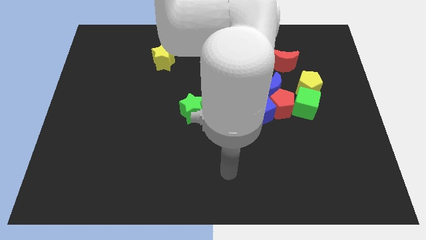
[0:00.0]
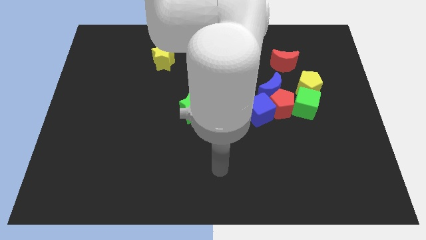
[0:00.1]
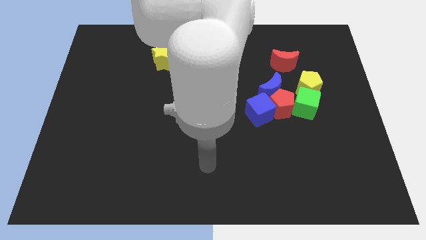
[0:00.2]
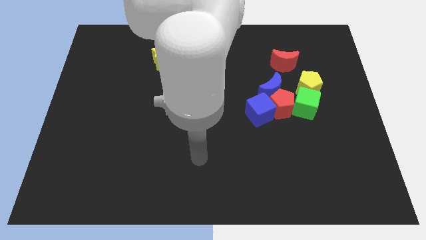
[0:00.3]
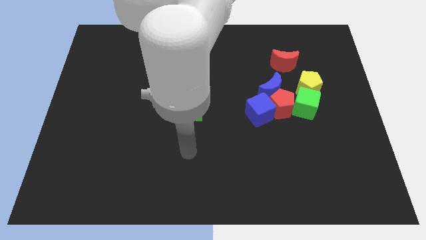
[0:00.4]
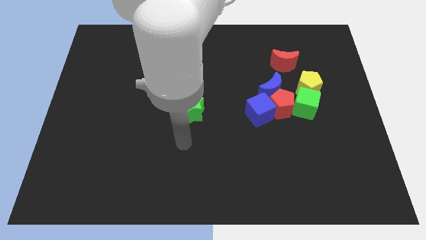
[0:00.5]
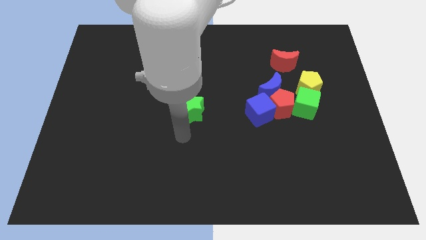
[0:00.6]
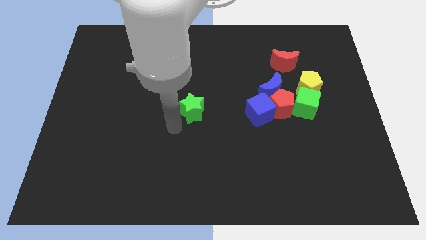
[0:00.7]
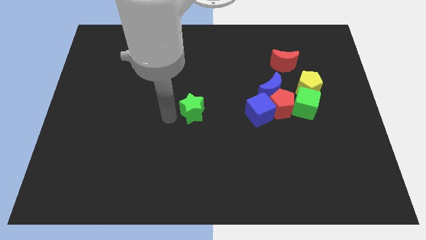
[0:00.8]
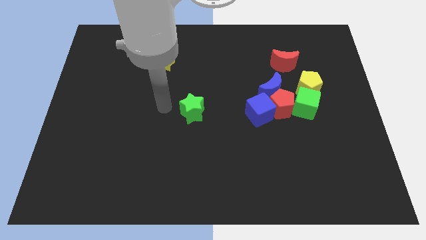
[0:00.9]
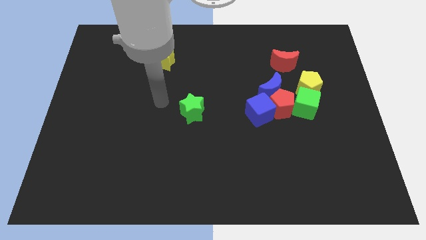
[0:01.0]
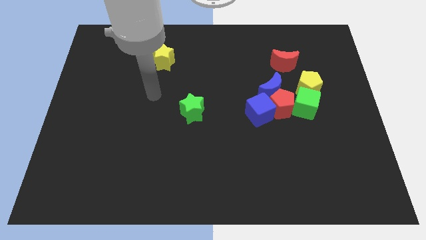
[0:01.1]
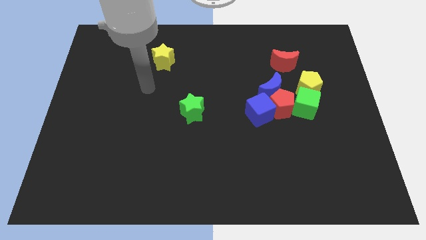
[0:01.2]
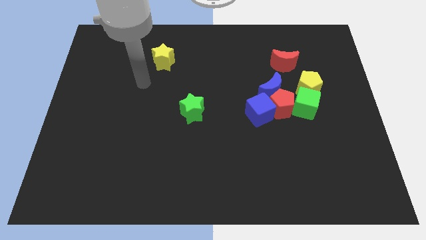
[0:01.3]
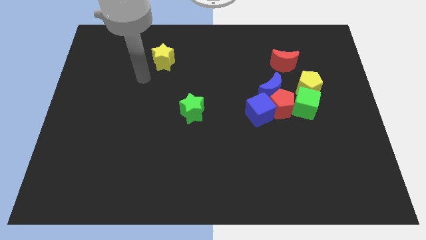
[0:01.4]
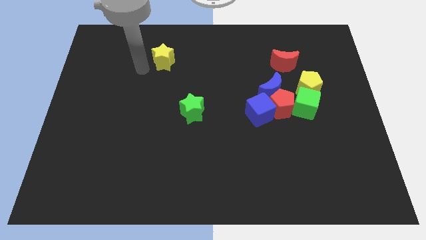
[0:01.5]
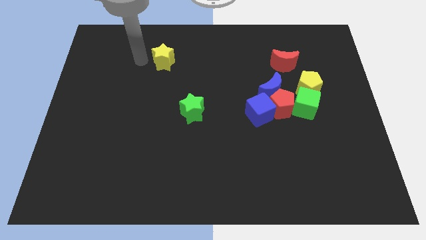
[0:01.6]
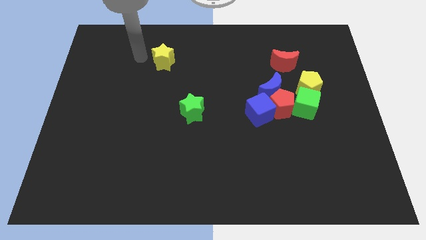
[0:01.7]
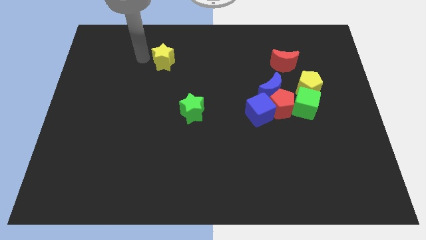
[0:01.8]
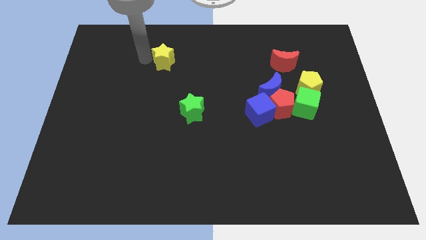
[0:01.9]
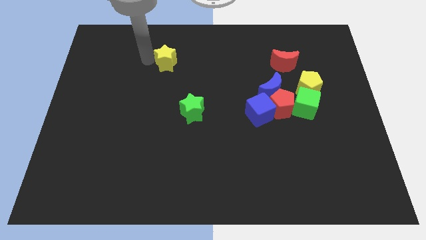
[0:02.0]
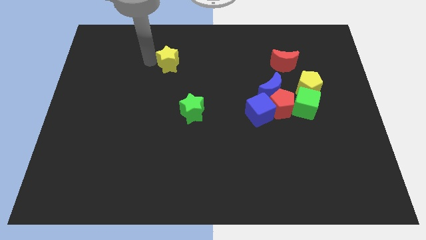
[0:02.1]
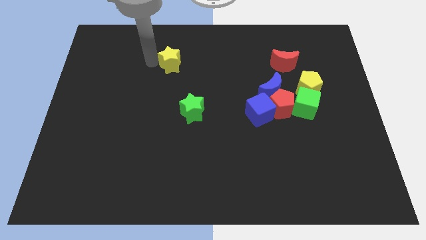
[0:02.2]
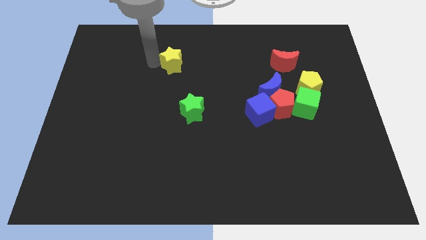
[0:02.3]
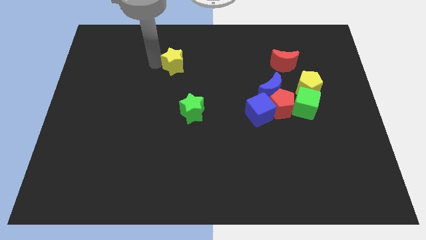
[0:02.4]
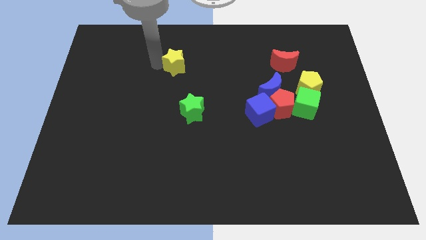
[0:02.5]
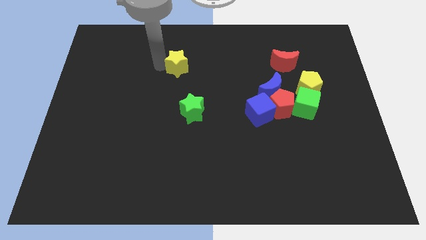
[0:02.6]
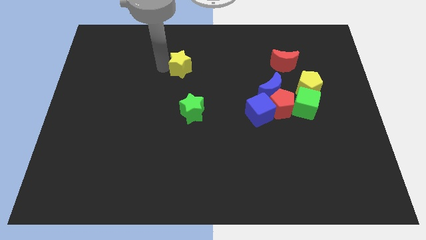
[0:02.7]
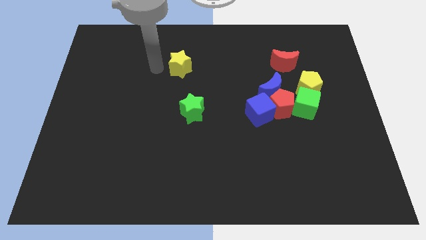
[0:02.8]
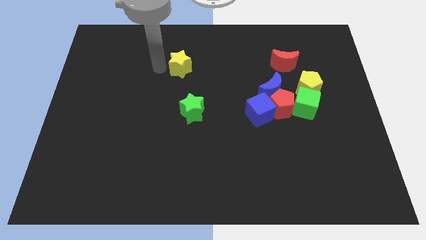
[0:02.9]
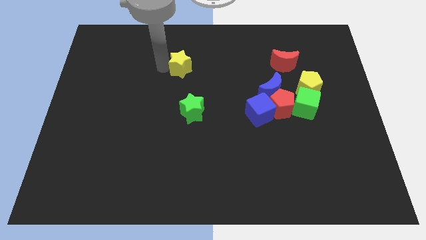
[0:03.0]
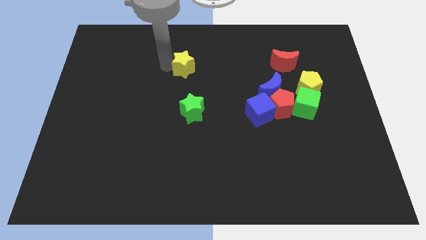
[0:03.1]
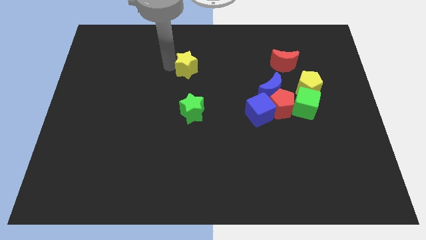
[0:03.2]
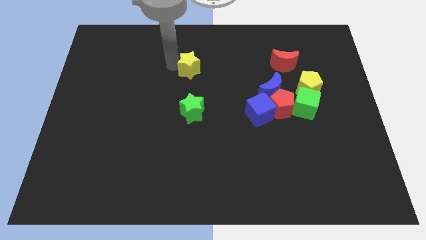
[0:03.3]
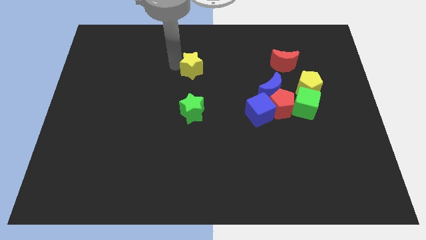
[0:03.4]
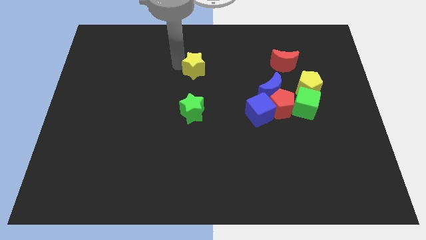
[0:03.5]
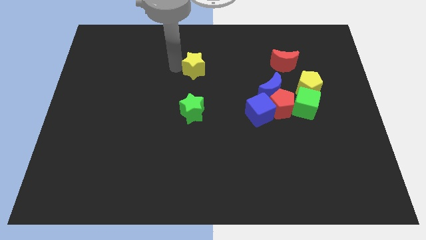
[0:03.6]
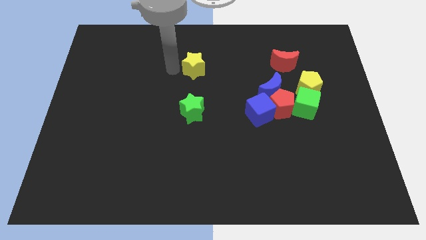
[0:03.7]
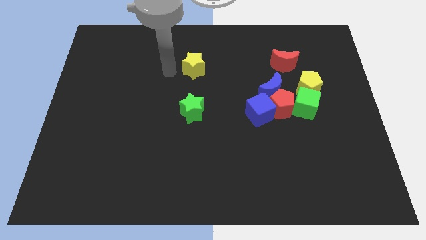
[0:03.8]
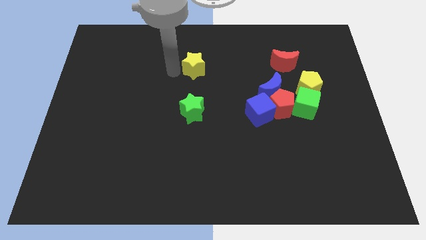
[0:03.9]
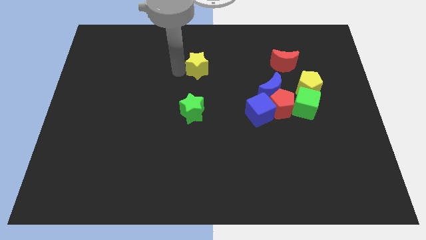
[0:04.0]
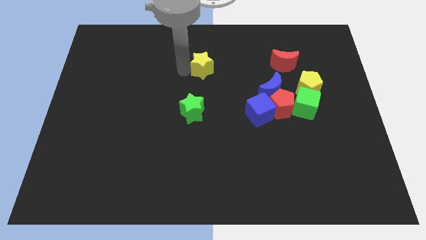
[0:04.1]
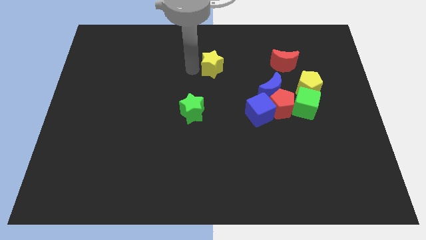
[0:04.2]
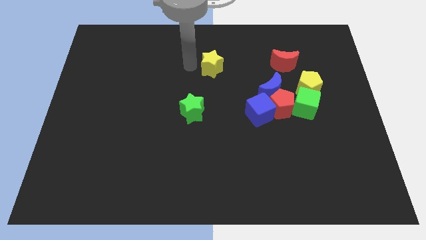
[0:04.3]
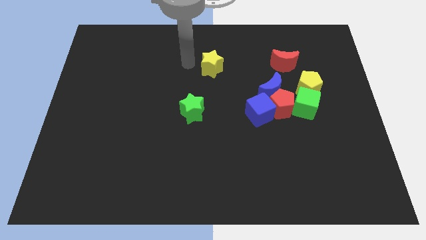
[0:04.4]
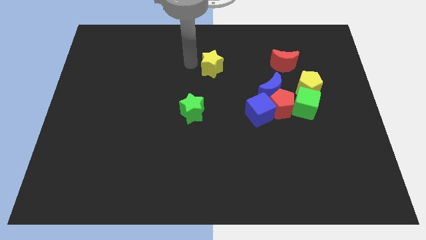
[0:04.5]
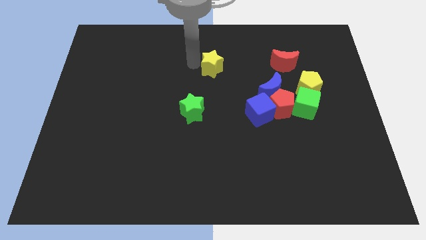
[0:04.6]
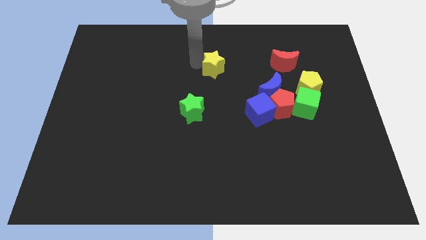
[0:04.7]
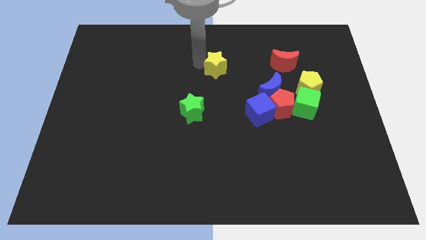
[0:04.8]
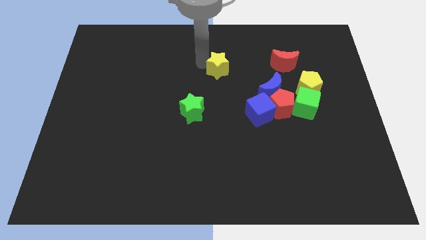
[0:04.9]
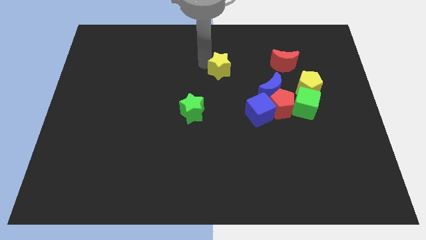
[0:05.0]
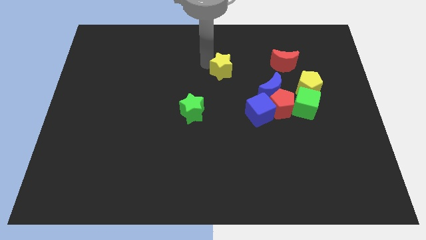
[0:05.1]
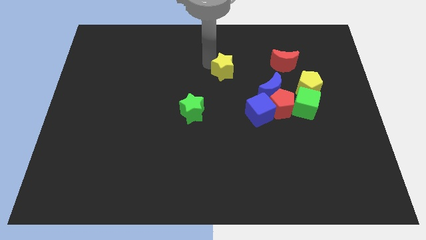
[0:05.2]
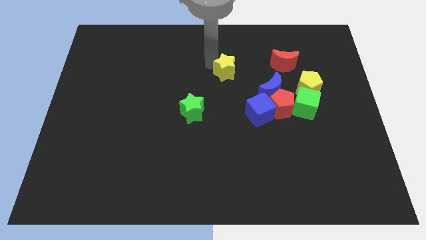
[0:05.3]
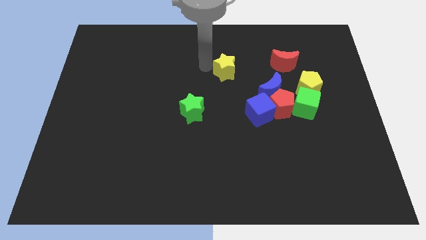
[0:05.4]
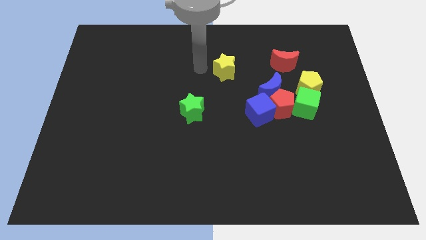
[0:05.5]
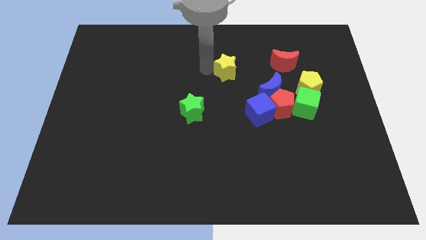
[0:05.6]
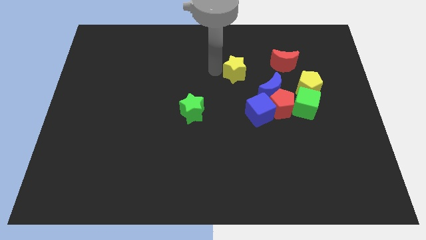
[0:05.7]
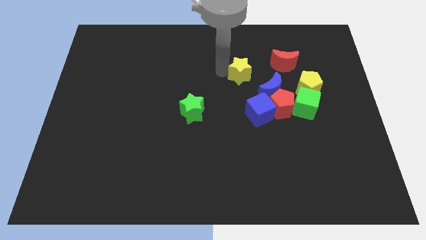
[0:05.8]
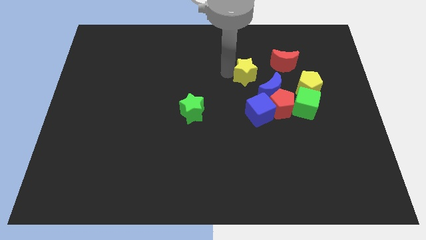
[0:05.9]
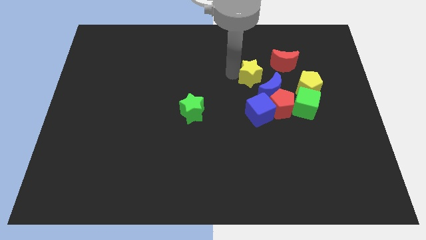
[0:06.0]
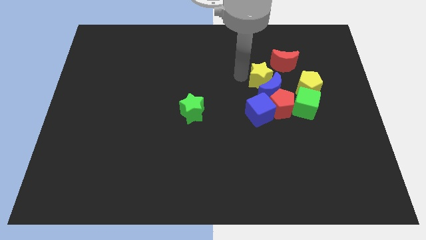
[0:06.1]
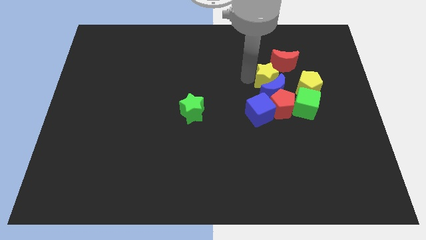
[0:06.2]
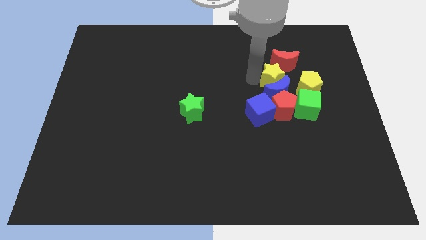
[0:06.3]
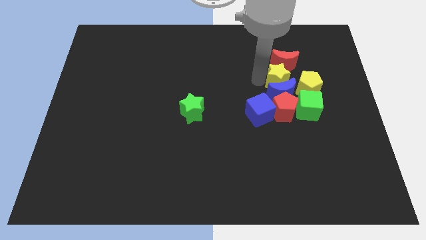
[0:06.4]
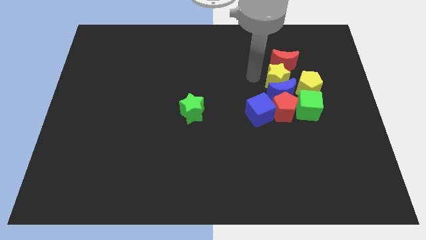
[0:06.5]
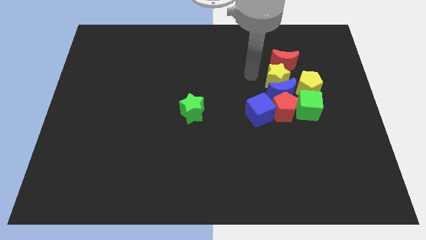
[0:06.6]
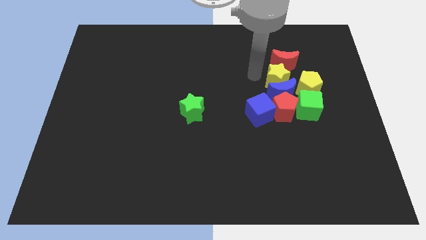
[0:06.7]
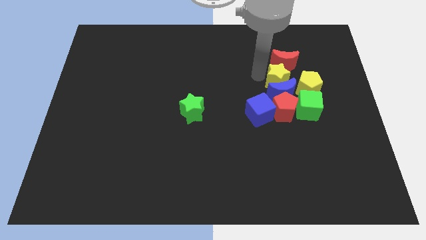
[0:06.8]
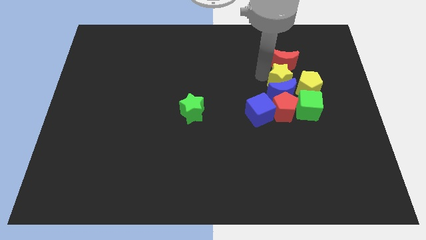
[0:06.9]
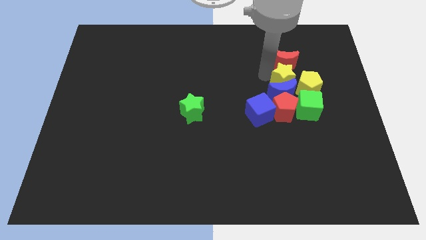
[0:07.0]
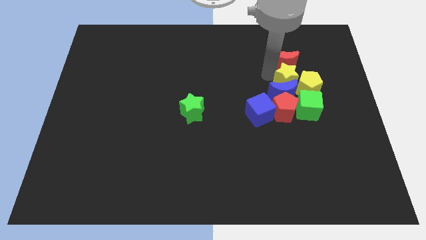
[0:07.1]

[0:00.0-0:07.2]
put the yellow star towards the yellow pentagon

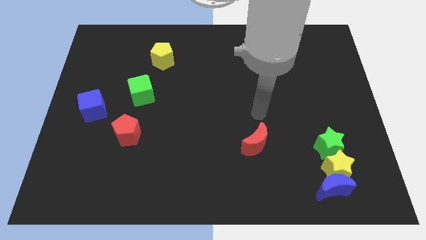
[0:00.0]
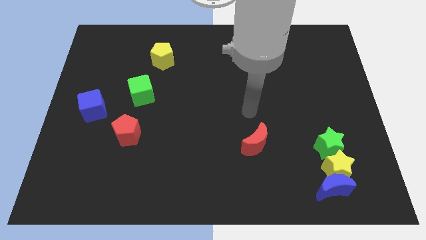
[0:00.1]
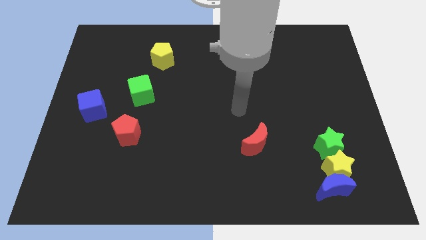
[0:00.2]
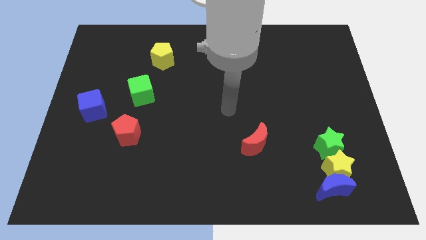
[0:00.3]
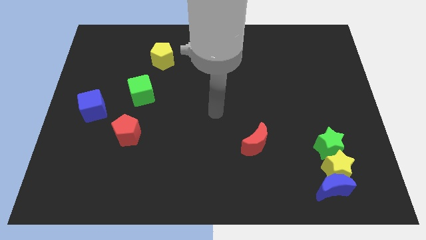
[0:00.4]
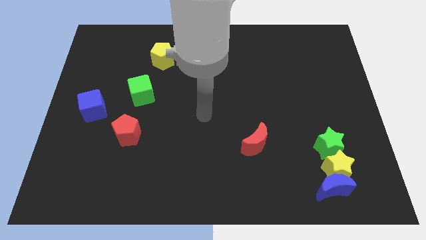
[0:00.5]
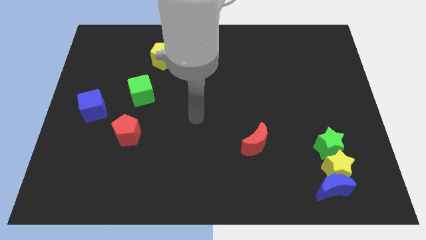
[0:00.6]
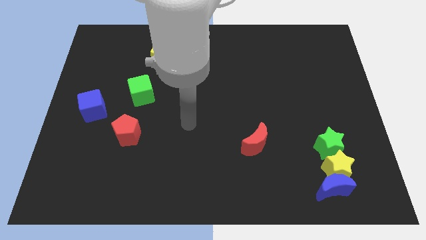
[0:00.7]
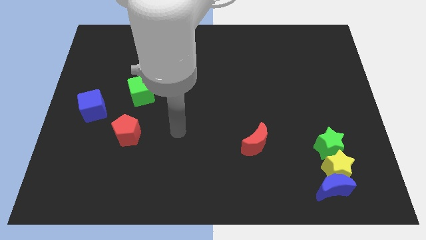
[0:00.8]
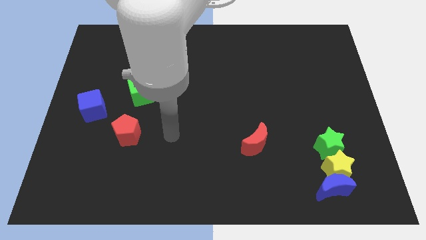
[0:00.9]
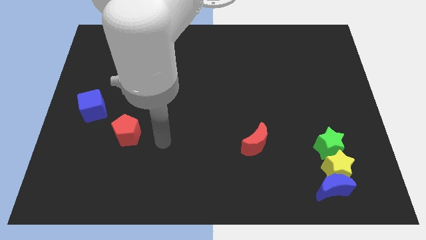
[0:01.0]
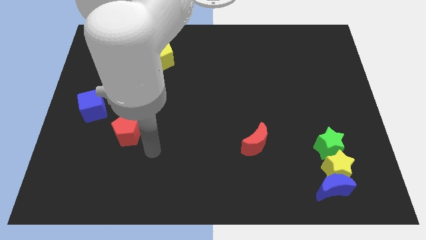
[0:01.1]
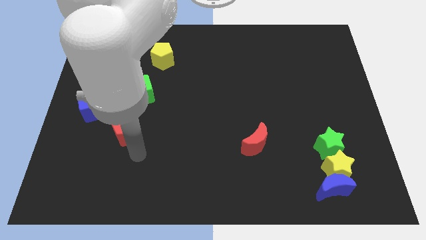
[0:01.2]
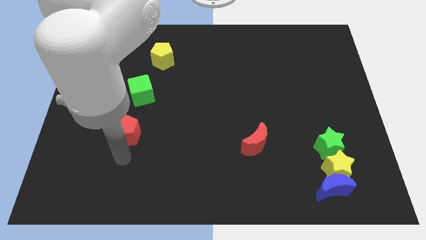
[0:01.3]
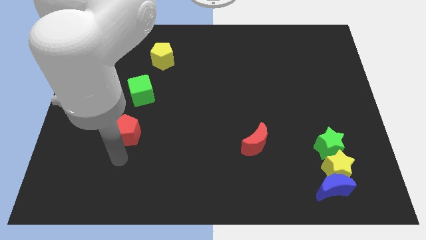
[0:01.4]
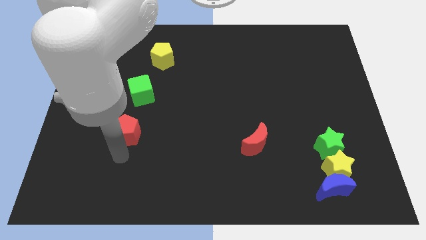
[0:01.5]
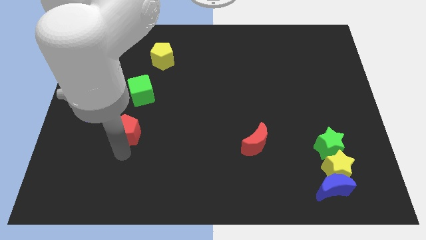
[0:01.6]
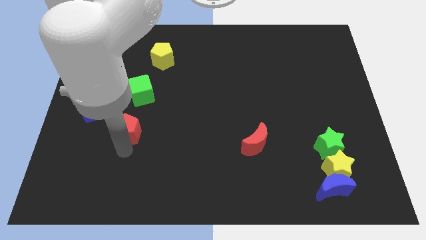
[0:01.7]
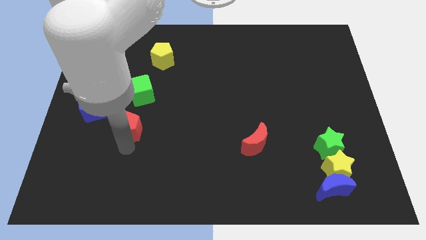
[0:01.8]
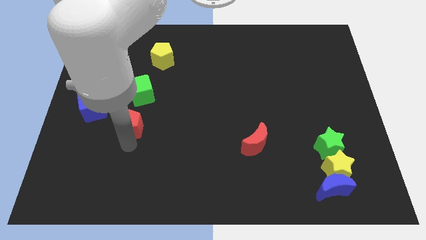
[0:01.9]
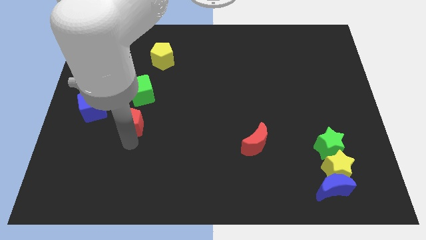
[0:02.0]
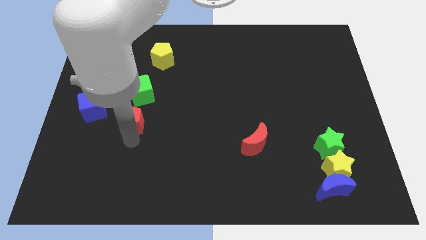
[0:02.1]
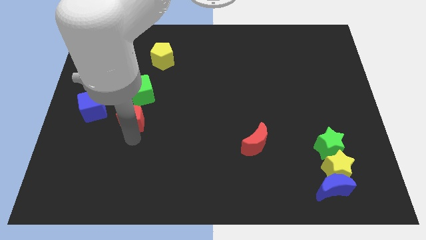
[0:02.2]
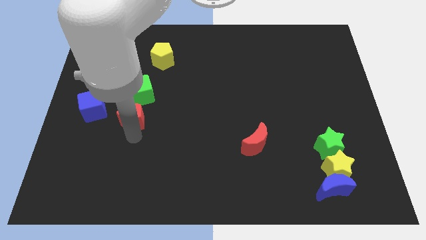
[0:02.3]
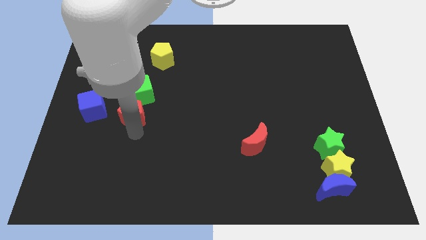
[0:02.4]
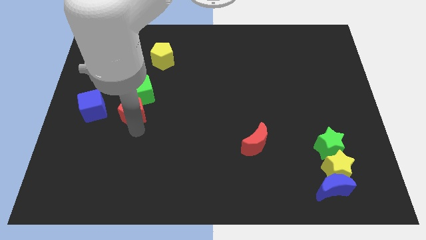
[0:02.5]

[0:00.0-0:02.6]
slide the red pentagon towards the green cube
